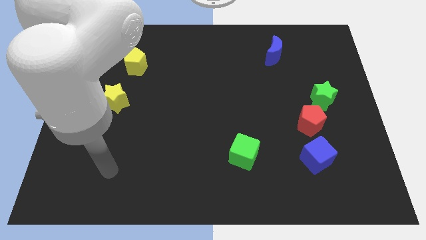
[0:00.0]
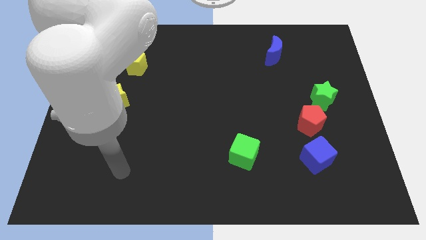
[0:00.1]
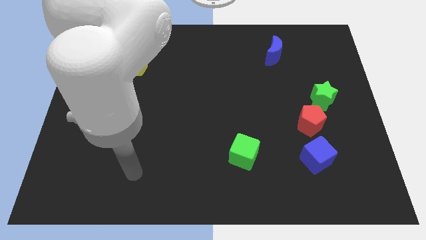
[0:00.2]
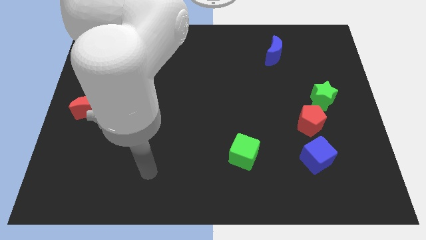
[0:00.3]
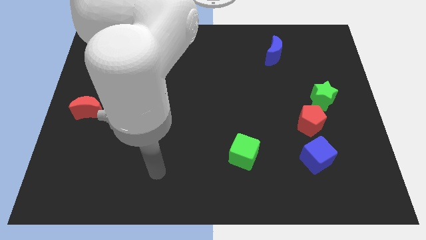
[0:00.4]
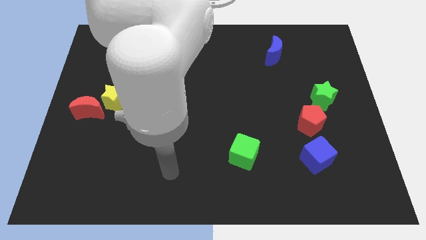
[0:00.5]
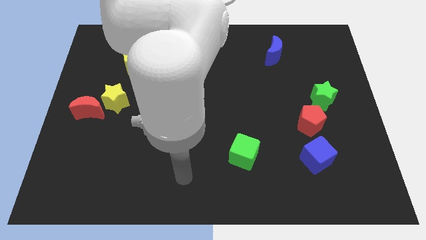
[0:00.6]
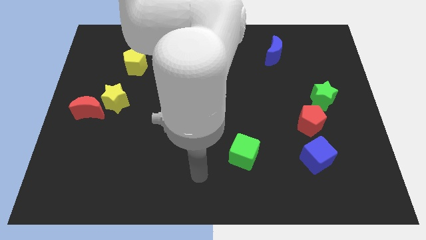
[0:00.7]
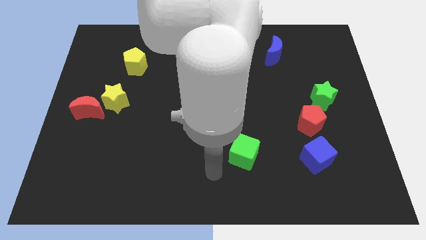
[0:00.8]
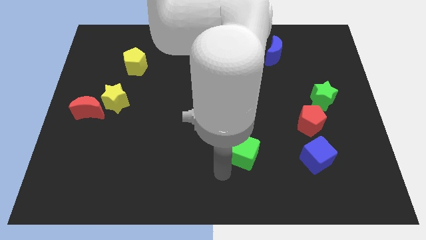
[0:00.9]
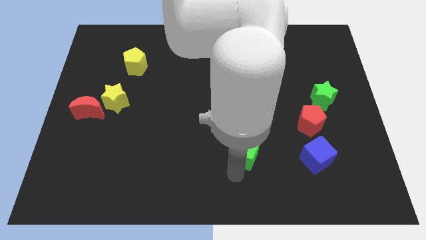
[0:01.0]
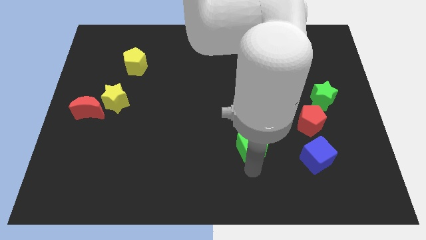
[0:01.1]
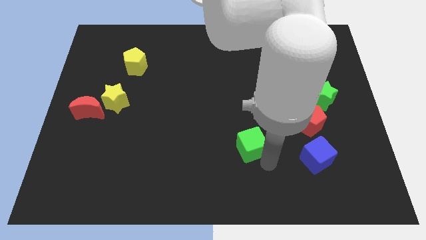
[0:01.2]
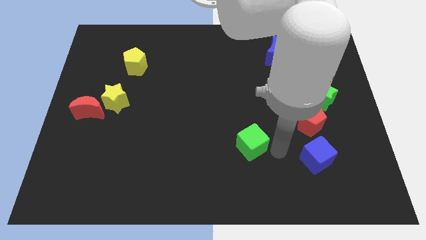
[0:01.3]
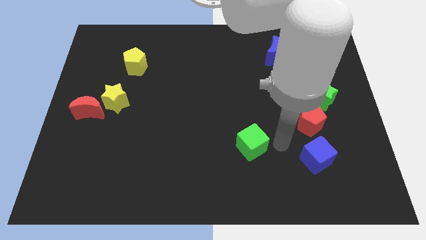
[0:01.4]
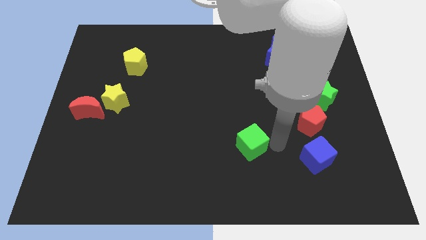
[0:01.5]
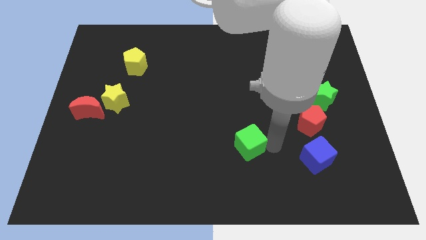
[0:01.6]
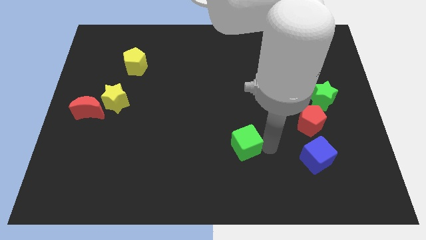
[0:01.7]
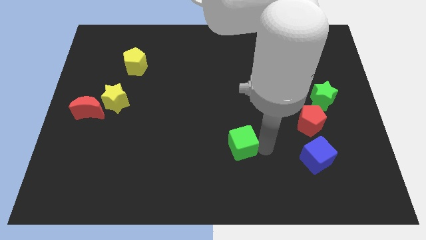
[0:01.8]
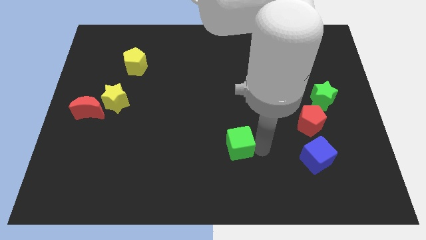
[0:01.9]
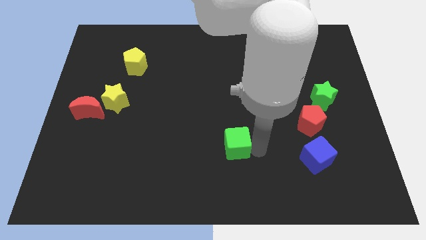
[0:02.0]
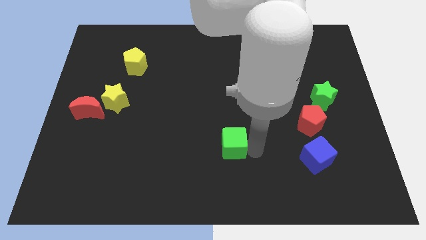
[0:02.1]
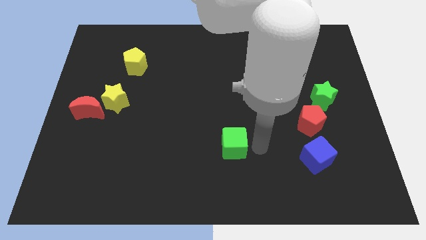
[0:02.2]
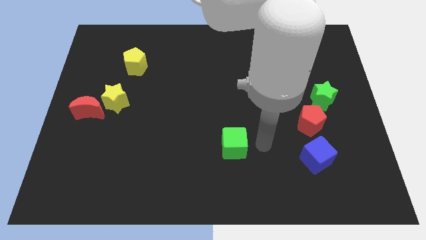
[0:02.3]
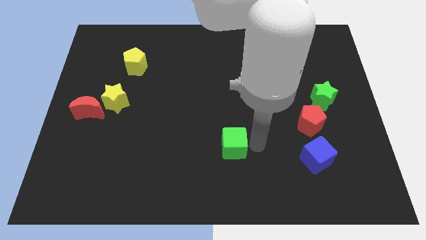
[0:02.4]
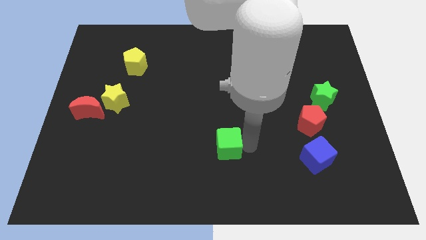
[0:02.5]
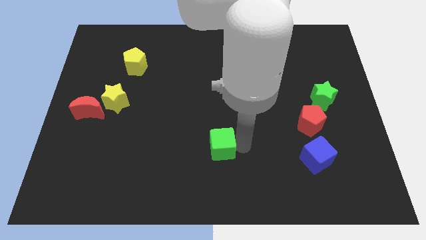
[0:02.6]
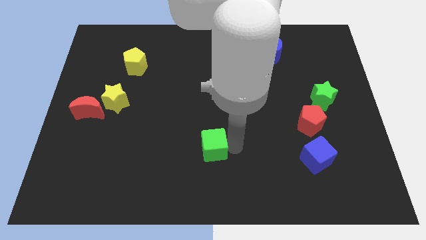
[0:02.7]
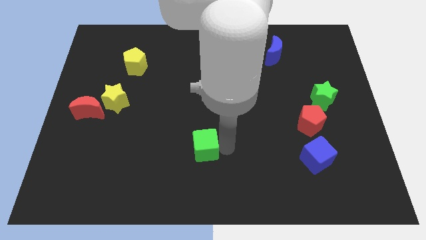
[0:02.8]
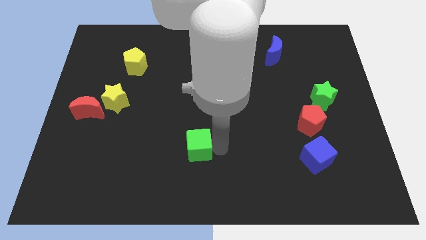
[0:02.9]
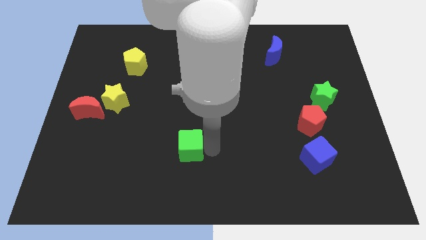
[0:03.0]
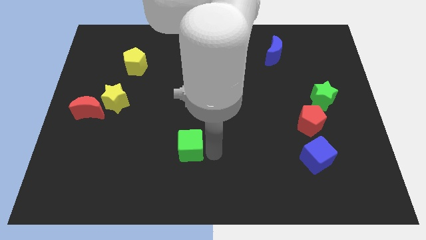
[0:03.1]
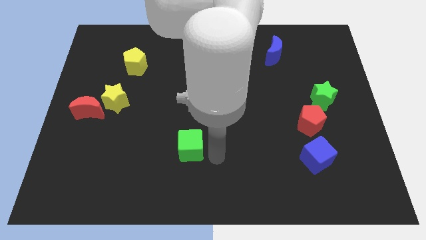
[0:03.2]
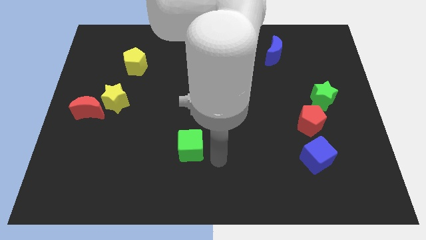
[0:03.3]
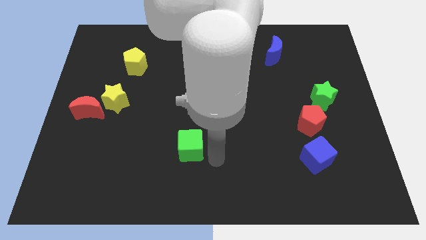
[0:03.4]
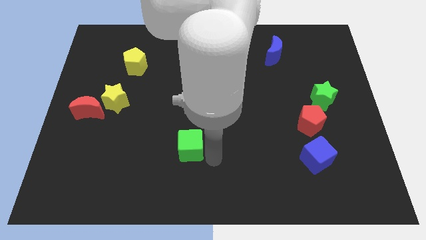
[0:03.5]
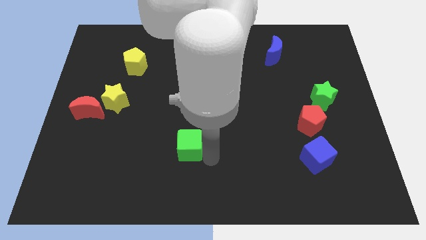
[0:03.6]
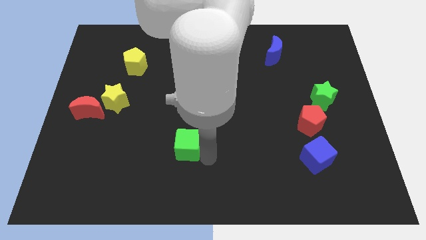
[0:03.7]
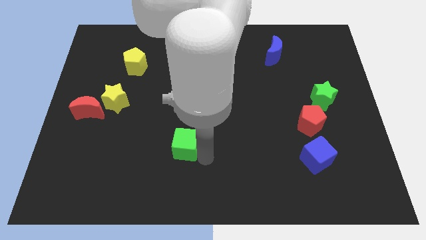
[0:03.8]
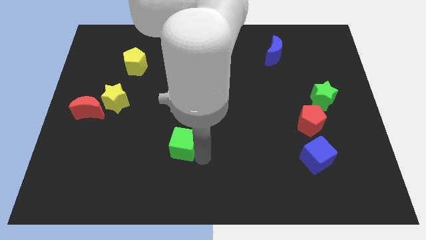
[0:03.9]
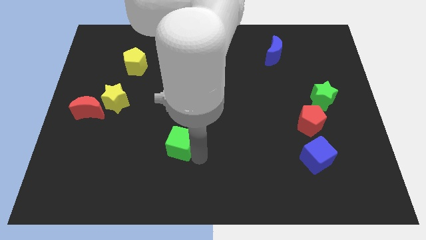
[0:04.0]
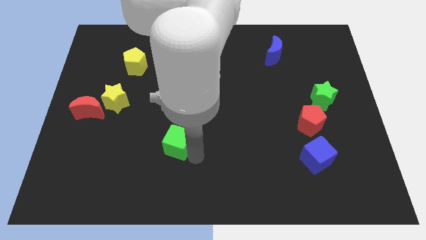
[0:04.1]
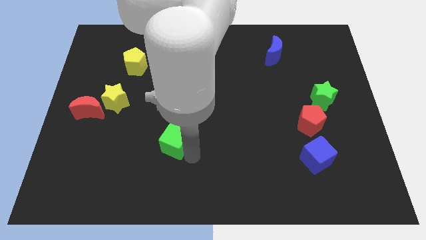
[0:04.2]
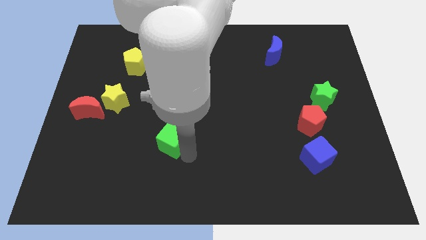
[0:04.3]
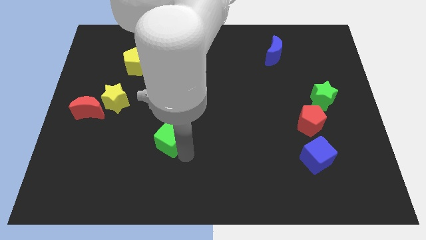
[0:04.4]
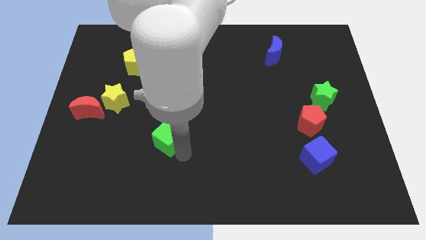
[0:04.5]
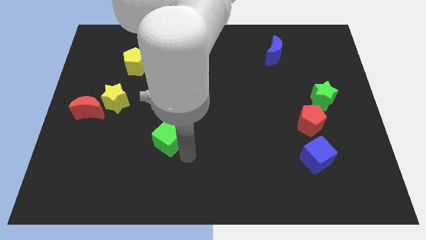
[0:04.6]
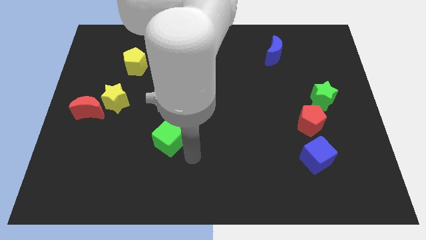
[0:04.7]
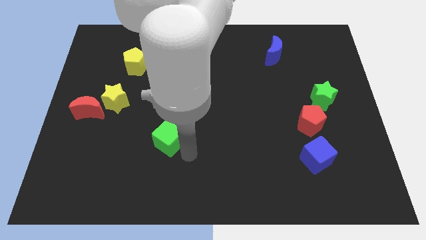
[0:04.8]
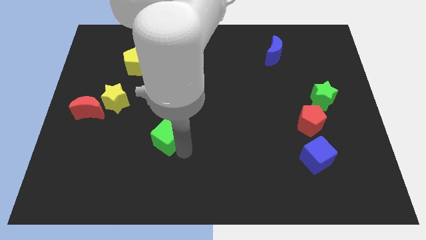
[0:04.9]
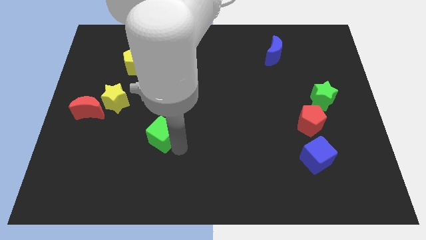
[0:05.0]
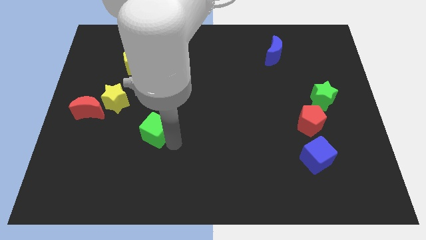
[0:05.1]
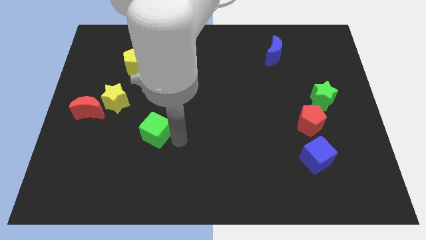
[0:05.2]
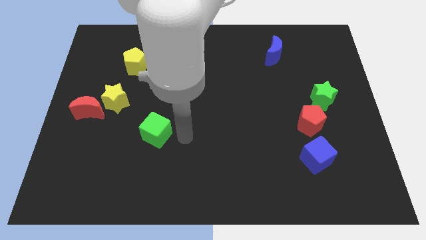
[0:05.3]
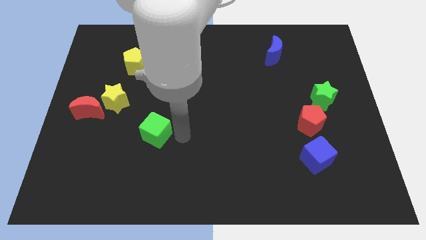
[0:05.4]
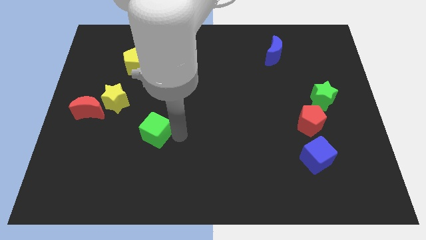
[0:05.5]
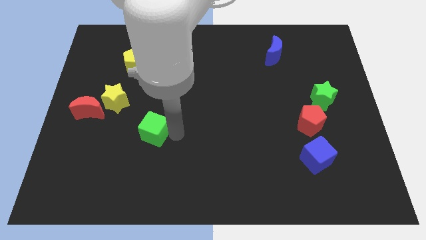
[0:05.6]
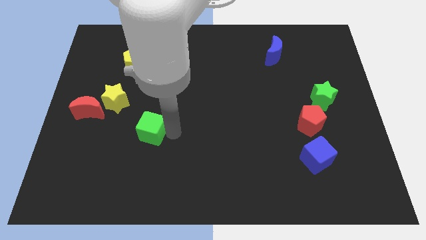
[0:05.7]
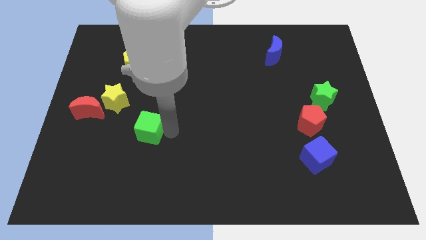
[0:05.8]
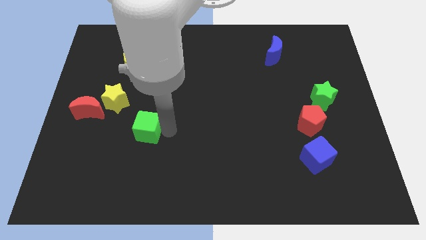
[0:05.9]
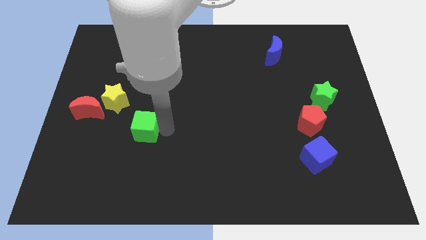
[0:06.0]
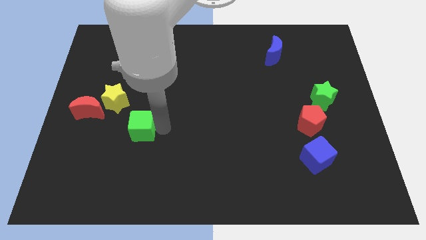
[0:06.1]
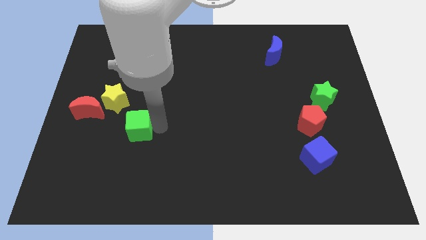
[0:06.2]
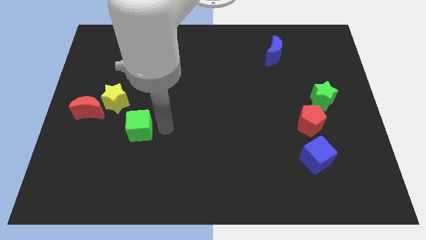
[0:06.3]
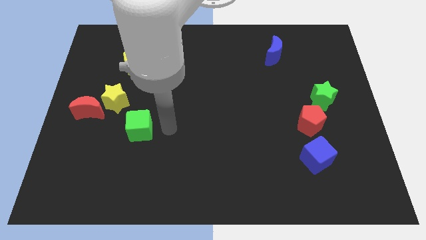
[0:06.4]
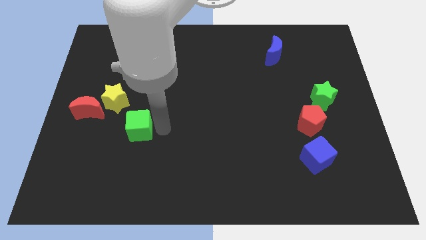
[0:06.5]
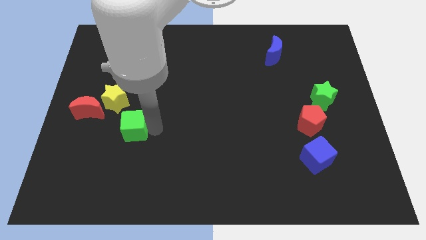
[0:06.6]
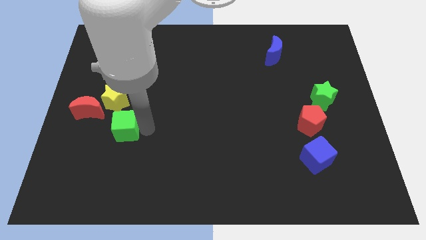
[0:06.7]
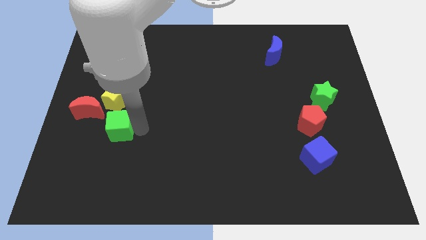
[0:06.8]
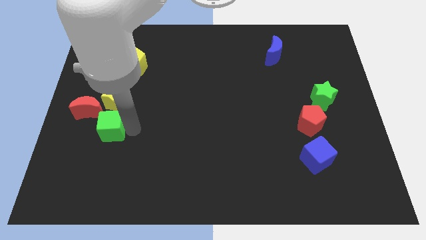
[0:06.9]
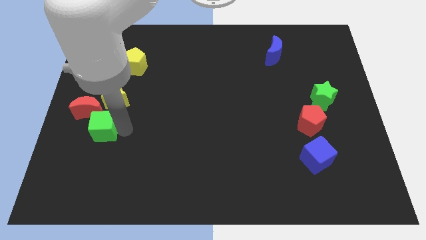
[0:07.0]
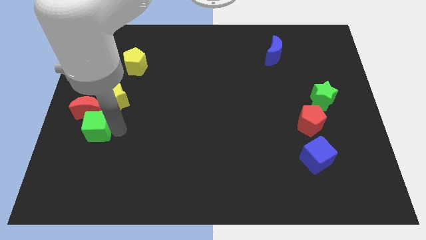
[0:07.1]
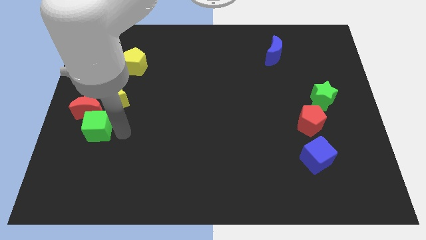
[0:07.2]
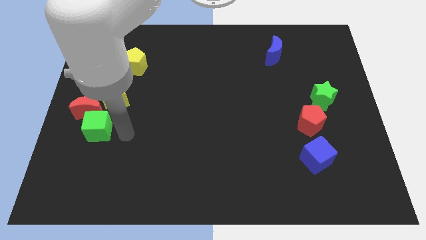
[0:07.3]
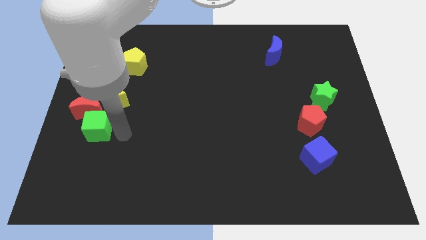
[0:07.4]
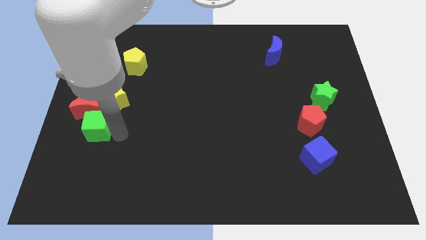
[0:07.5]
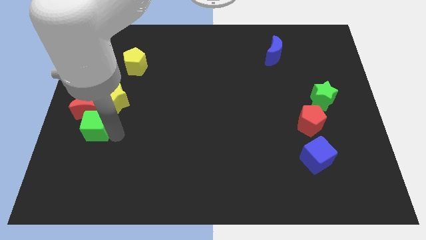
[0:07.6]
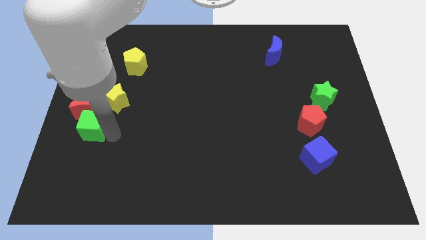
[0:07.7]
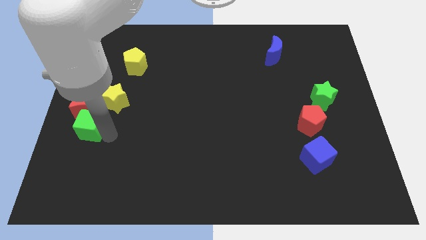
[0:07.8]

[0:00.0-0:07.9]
put the green cube to the center left
